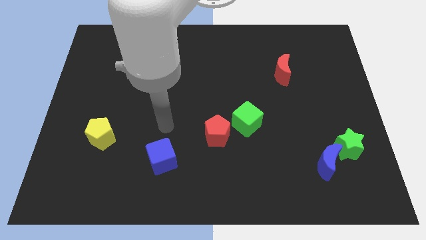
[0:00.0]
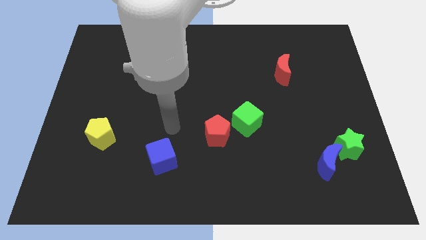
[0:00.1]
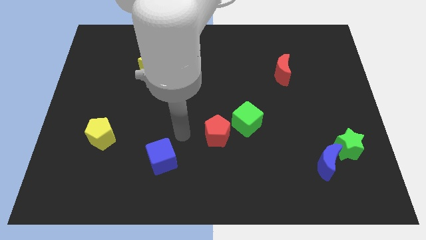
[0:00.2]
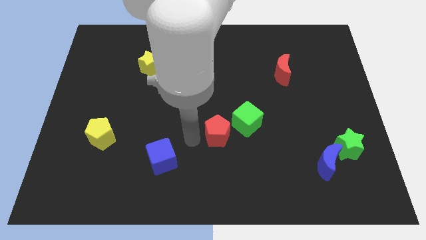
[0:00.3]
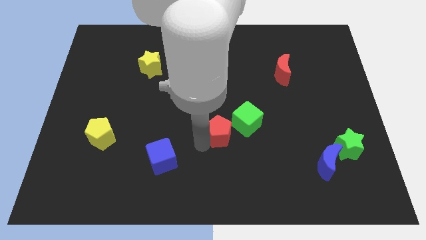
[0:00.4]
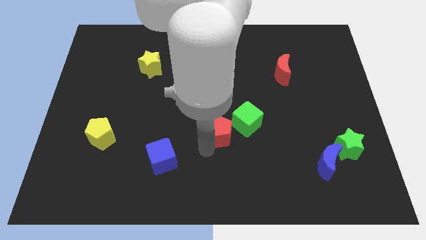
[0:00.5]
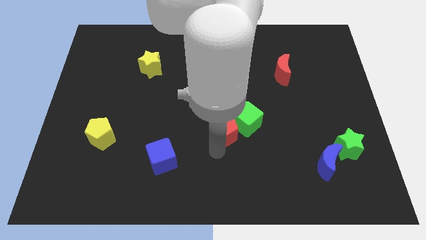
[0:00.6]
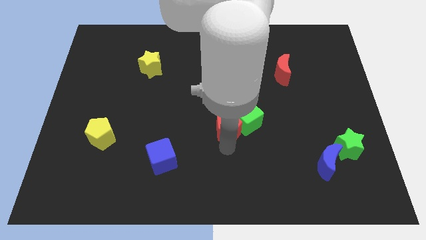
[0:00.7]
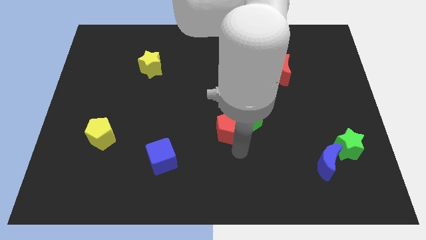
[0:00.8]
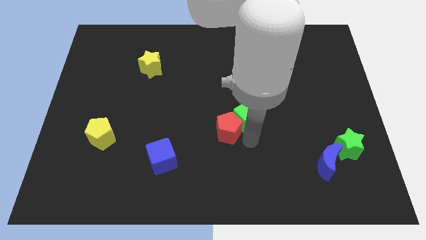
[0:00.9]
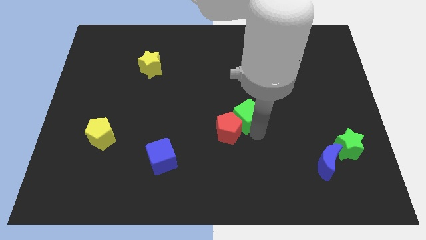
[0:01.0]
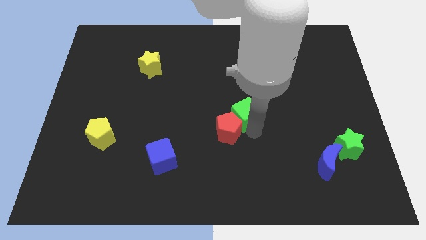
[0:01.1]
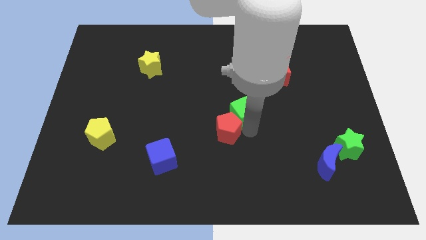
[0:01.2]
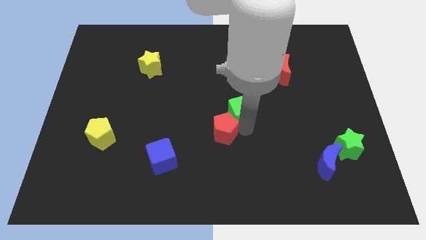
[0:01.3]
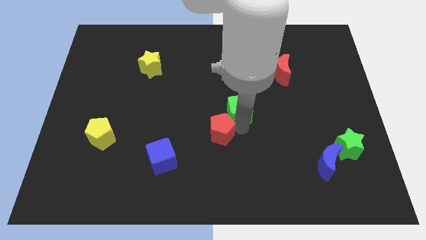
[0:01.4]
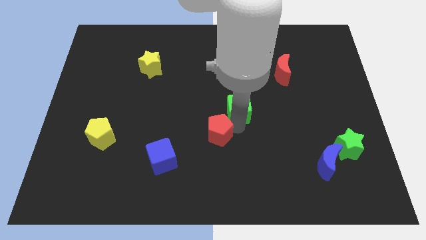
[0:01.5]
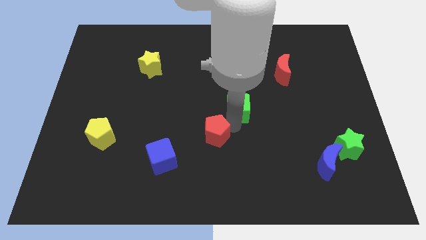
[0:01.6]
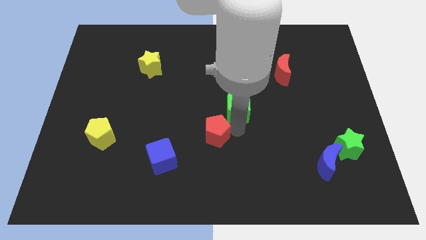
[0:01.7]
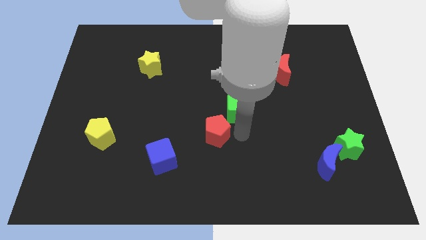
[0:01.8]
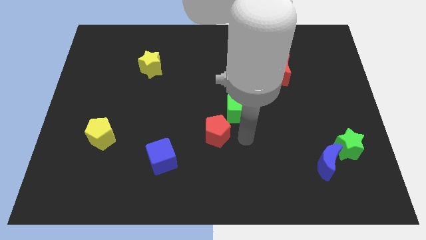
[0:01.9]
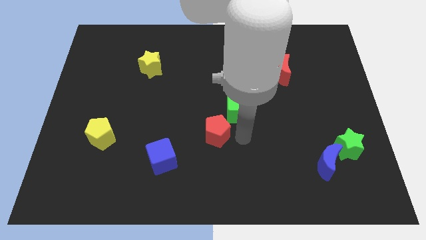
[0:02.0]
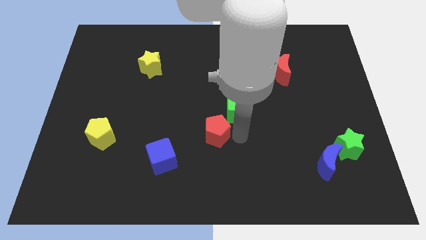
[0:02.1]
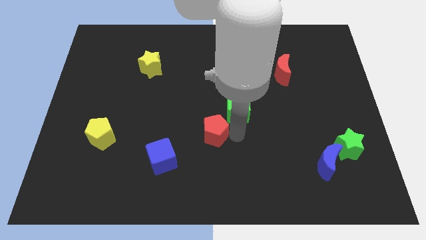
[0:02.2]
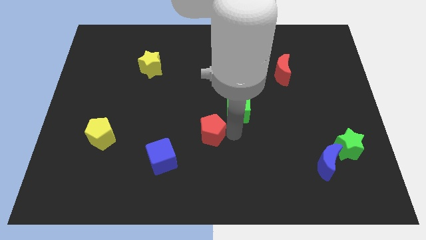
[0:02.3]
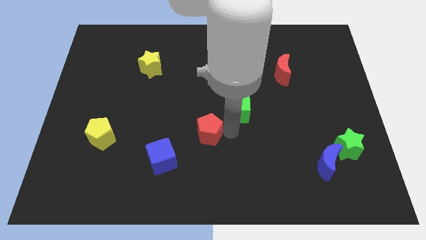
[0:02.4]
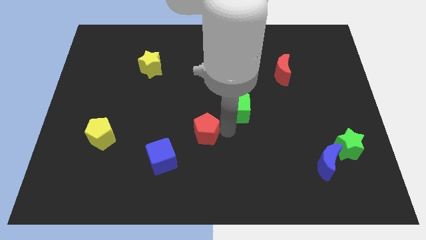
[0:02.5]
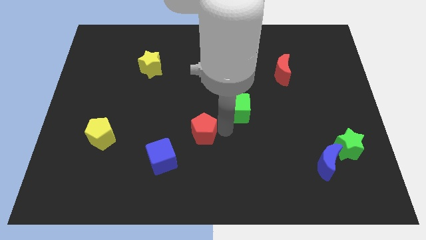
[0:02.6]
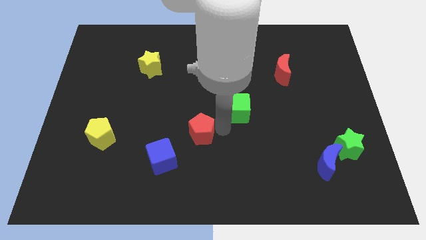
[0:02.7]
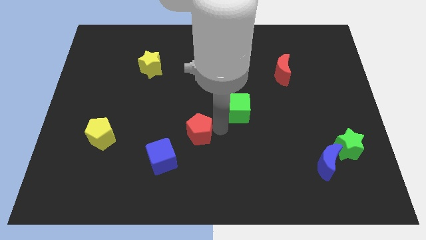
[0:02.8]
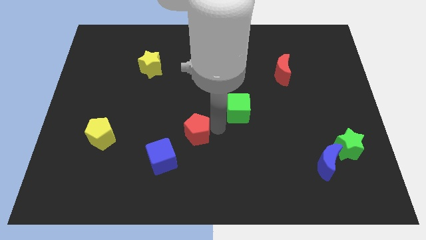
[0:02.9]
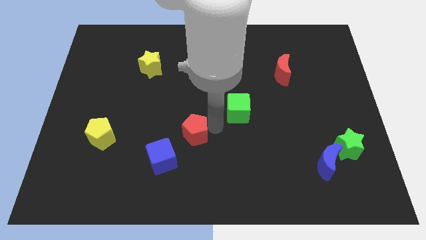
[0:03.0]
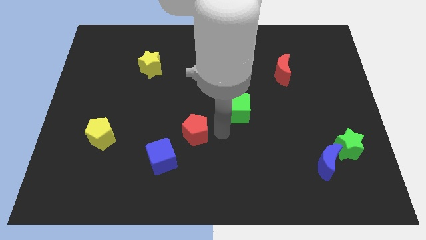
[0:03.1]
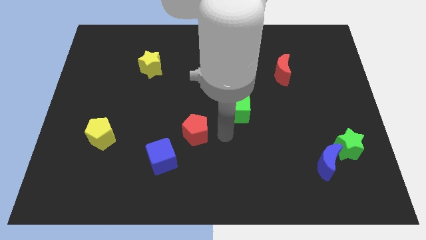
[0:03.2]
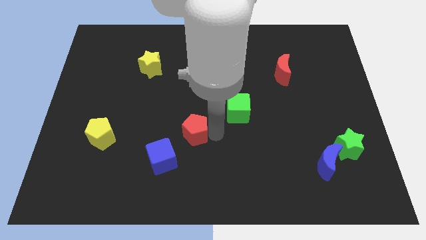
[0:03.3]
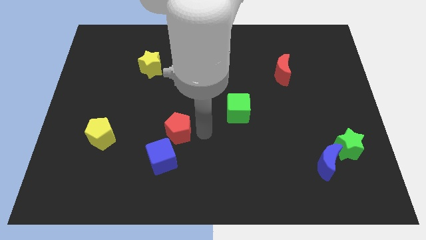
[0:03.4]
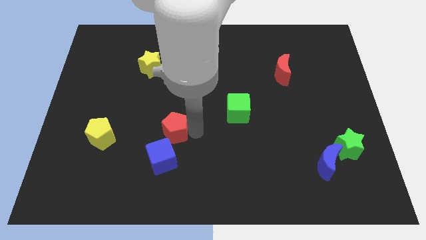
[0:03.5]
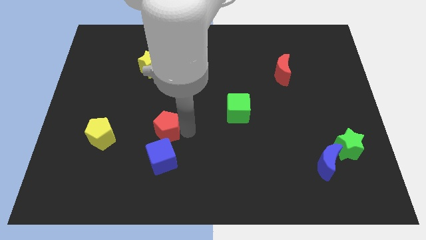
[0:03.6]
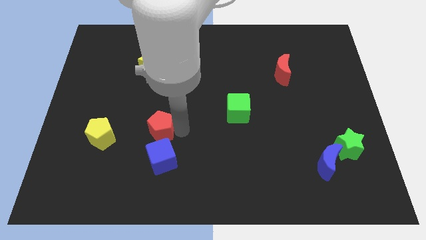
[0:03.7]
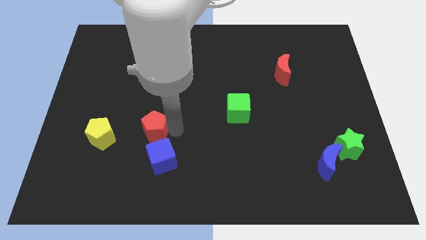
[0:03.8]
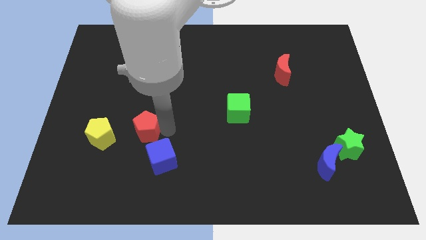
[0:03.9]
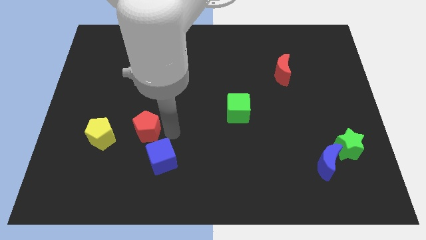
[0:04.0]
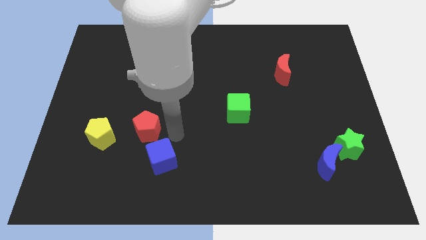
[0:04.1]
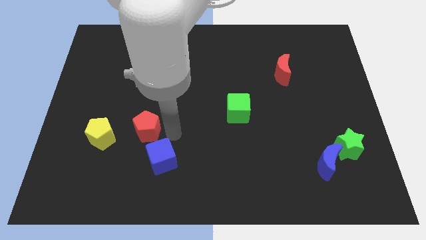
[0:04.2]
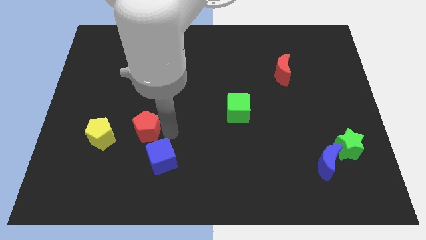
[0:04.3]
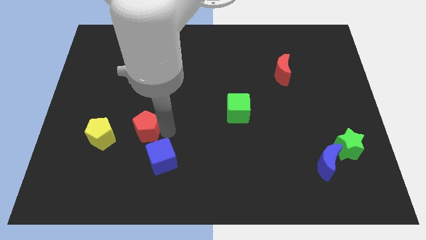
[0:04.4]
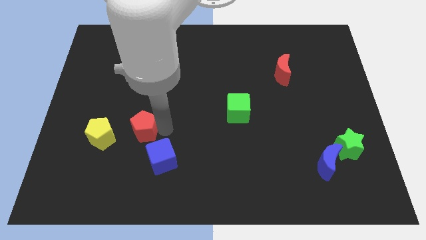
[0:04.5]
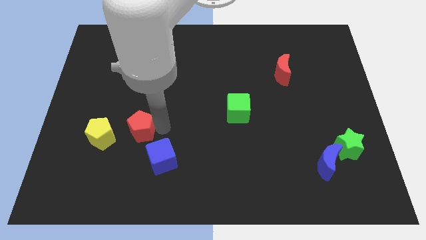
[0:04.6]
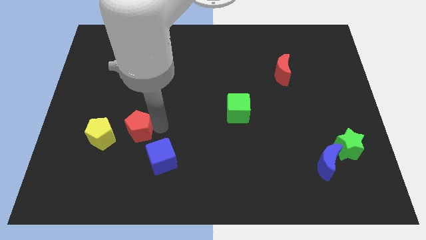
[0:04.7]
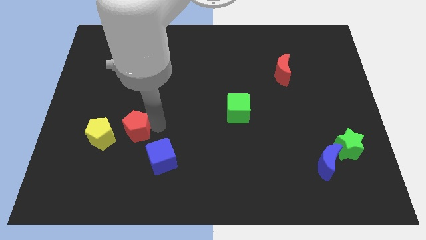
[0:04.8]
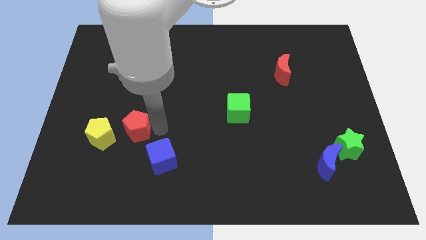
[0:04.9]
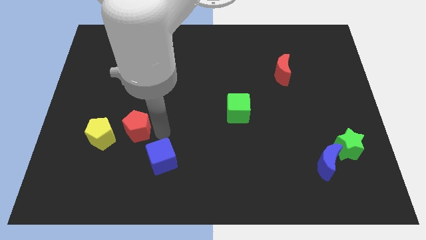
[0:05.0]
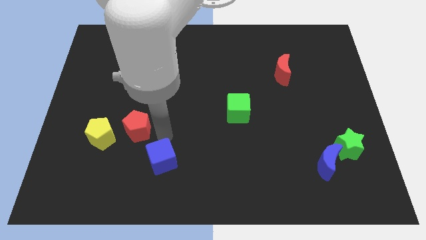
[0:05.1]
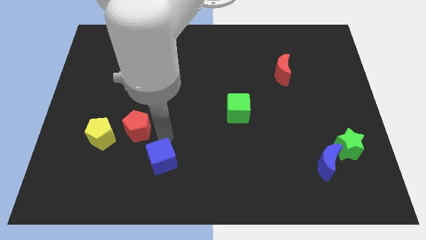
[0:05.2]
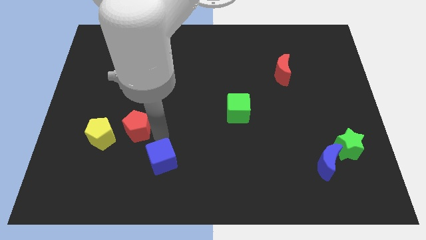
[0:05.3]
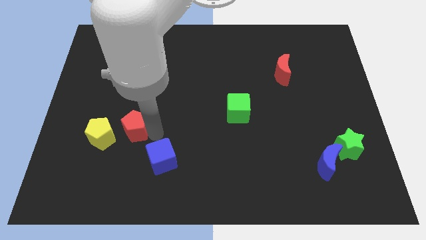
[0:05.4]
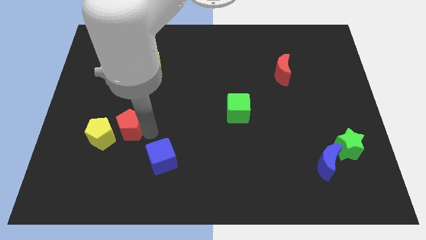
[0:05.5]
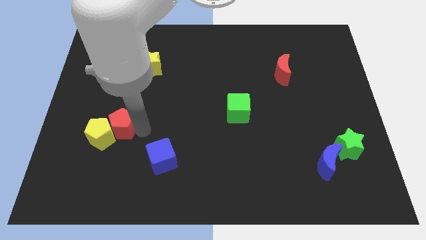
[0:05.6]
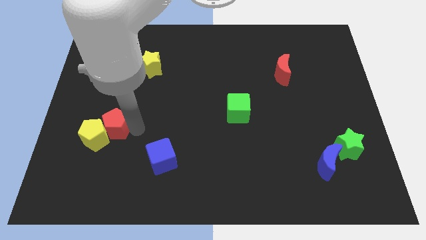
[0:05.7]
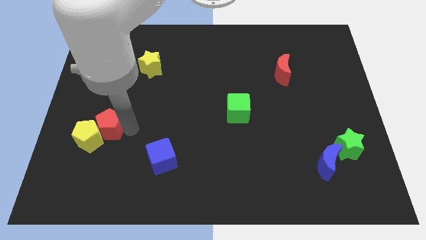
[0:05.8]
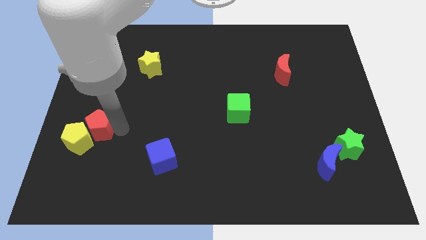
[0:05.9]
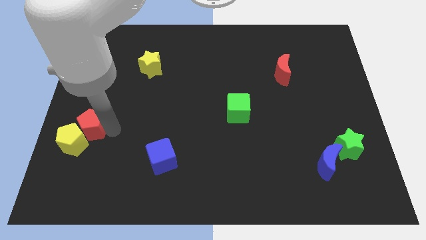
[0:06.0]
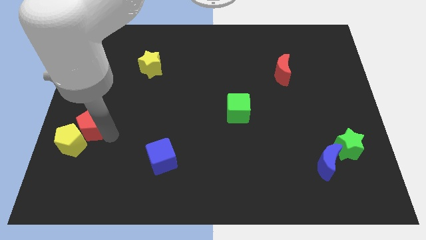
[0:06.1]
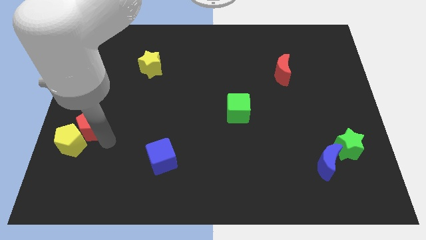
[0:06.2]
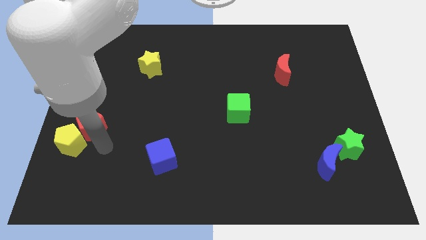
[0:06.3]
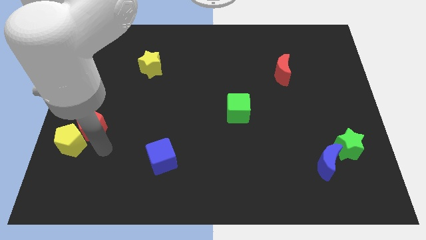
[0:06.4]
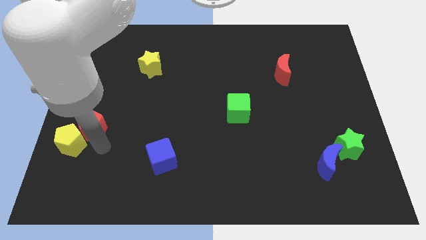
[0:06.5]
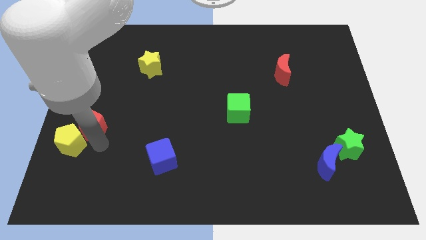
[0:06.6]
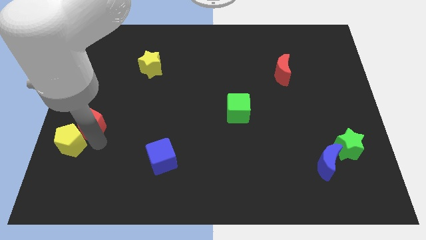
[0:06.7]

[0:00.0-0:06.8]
put the red pentagon to the center left
